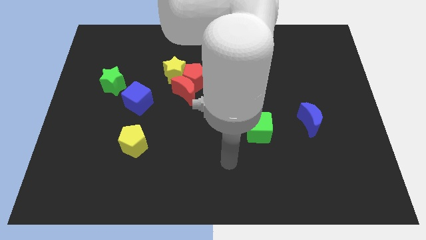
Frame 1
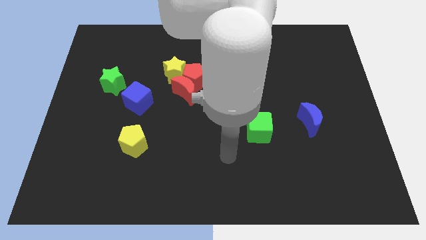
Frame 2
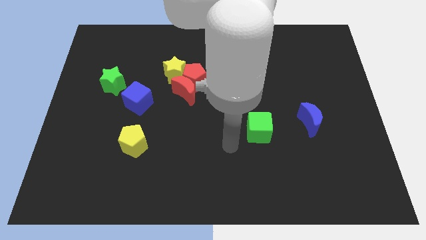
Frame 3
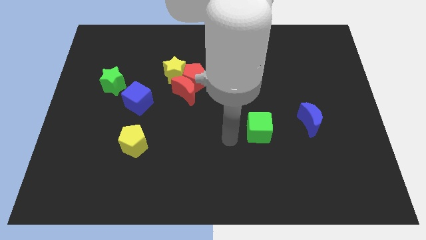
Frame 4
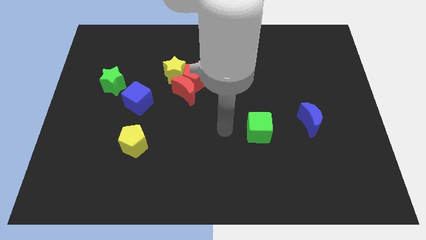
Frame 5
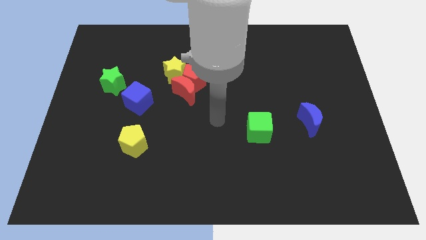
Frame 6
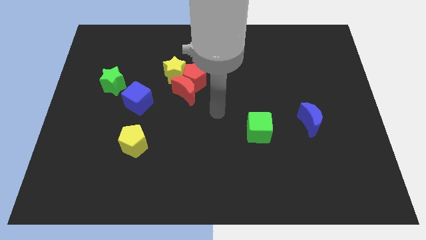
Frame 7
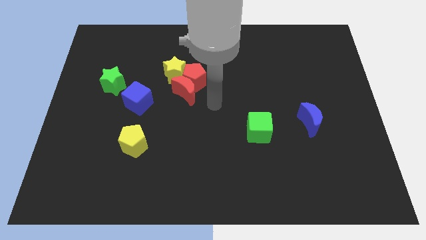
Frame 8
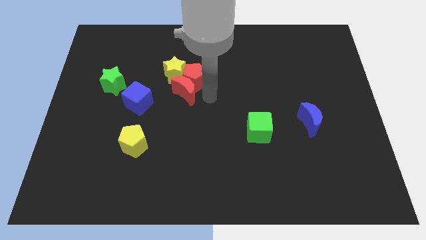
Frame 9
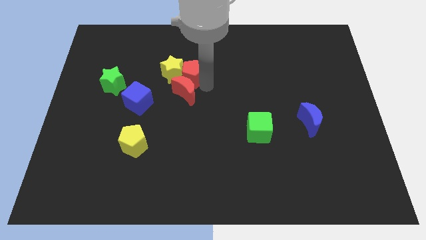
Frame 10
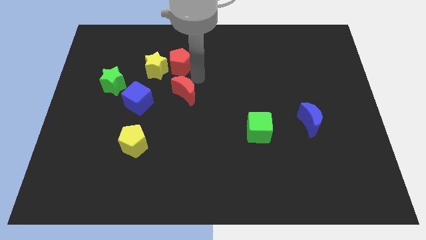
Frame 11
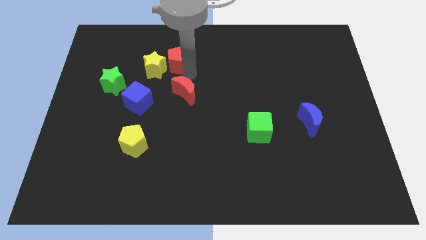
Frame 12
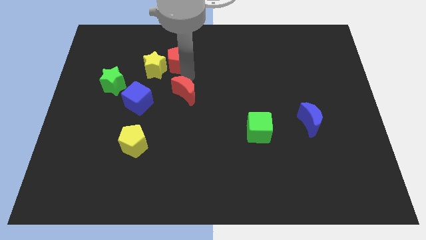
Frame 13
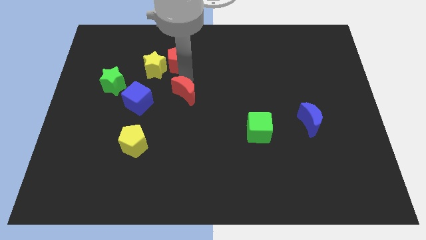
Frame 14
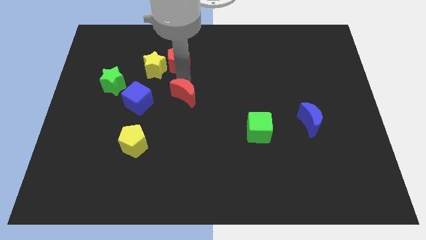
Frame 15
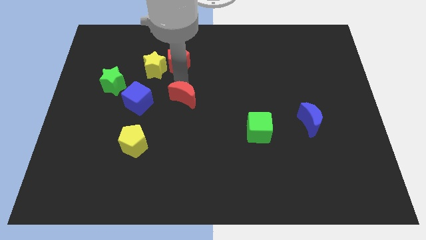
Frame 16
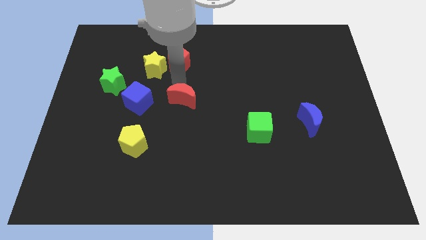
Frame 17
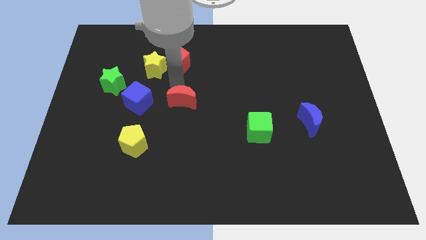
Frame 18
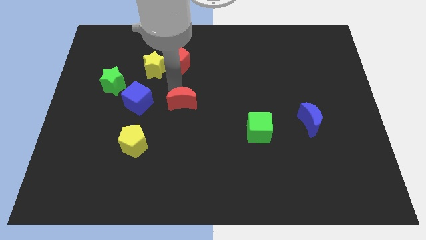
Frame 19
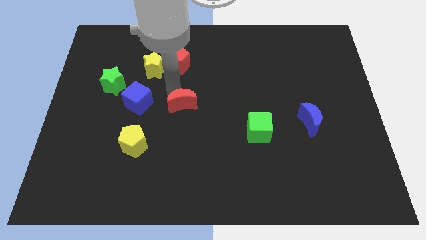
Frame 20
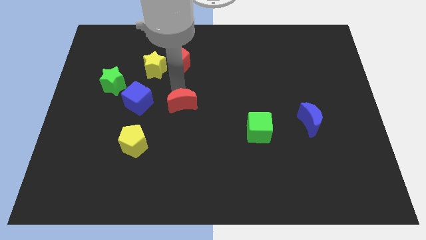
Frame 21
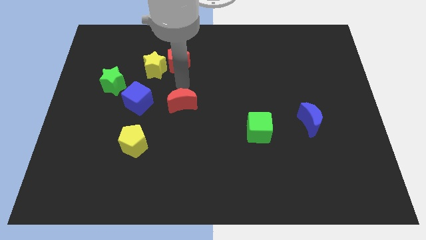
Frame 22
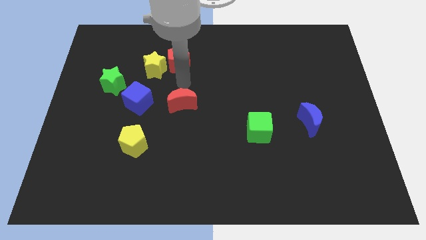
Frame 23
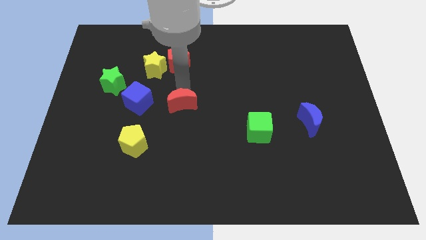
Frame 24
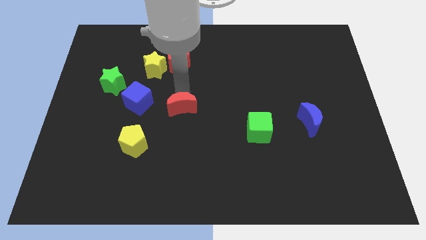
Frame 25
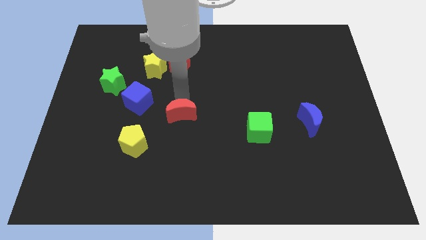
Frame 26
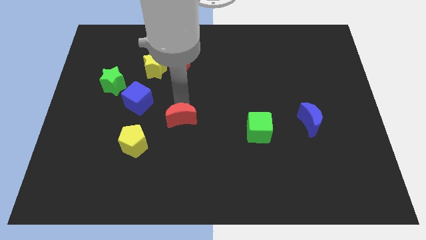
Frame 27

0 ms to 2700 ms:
move the red moon down a little bit

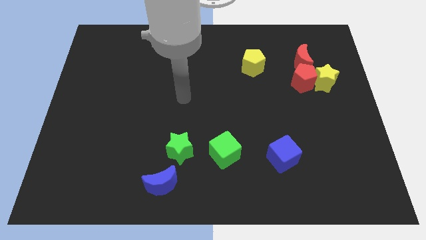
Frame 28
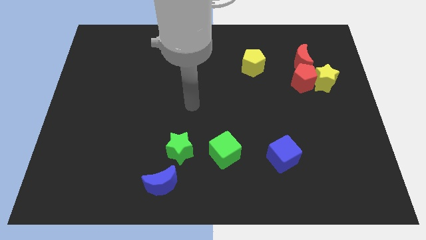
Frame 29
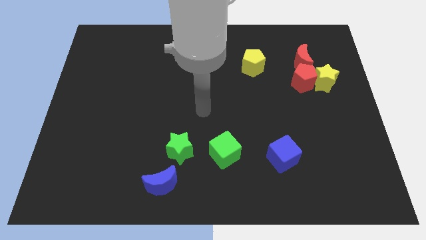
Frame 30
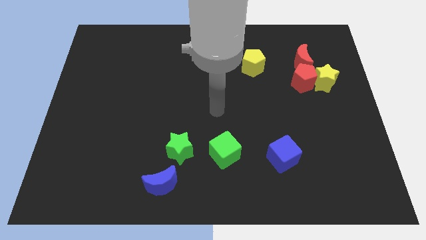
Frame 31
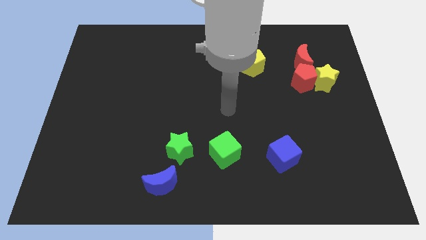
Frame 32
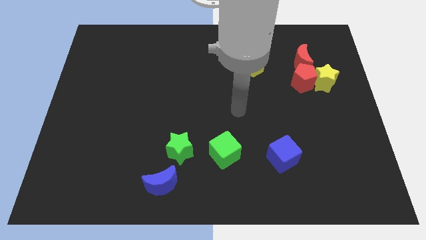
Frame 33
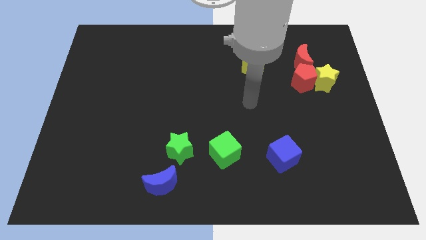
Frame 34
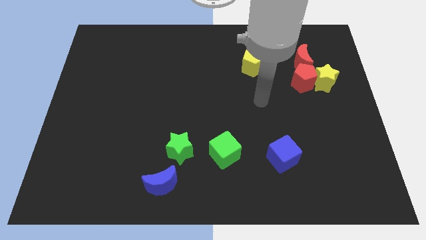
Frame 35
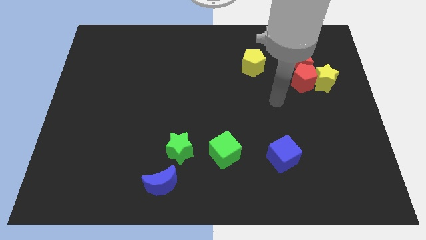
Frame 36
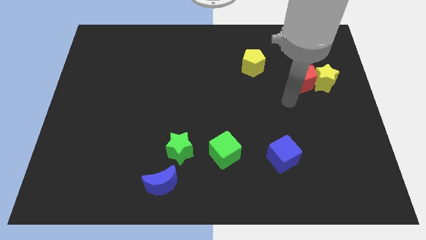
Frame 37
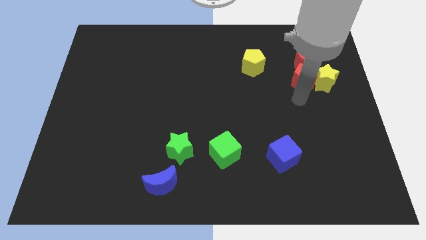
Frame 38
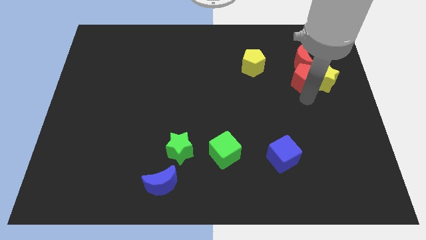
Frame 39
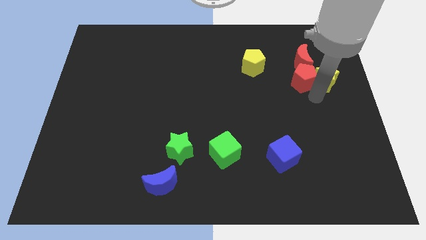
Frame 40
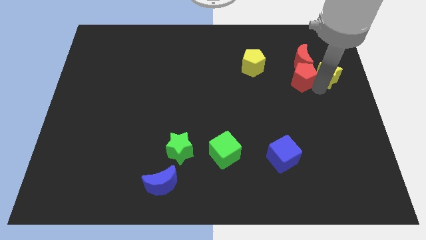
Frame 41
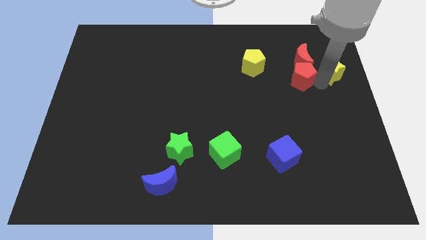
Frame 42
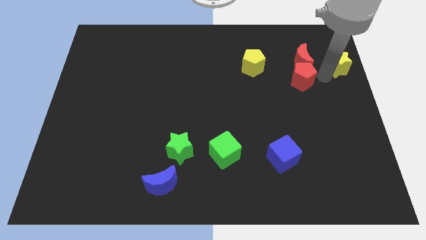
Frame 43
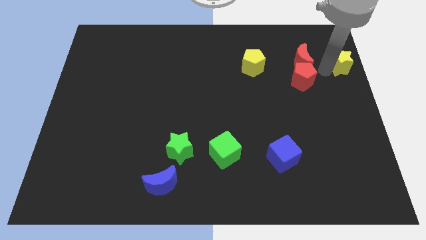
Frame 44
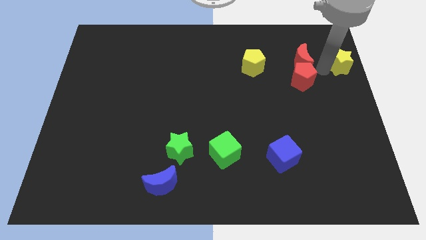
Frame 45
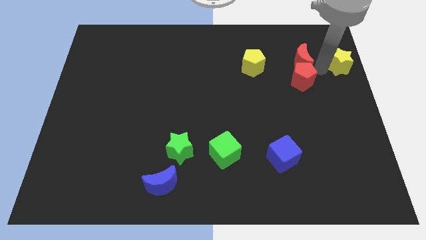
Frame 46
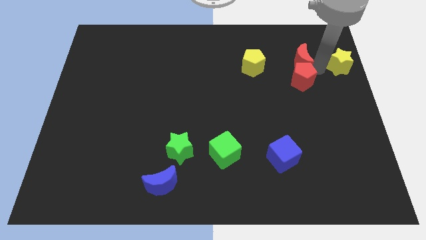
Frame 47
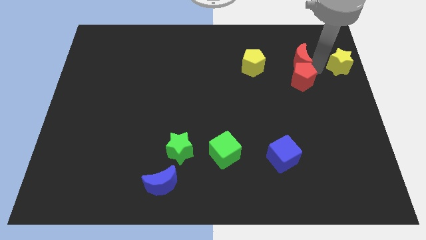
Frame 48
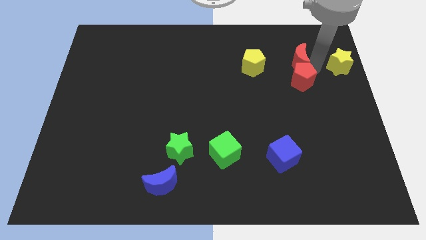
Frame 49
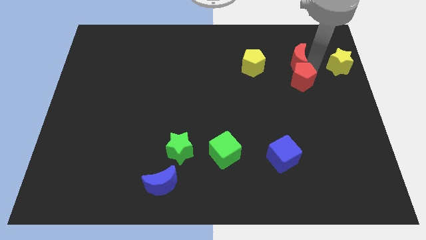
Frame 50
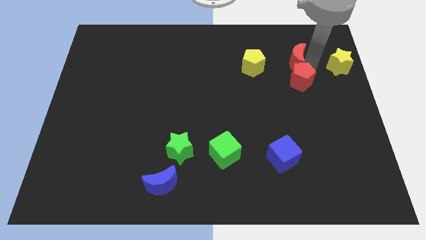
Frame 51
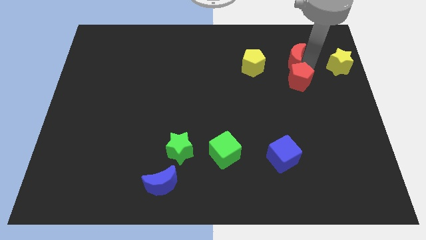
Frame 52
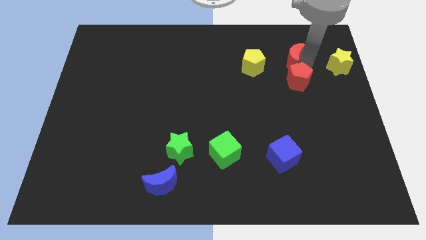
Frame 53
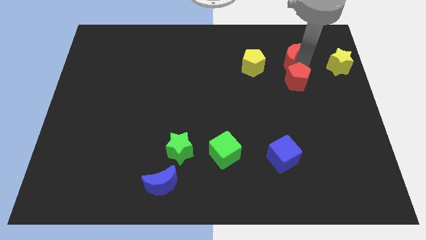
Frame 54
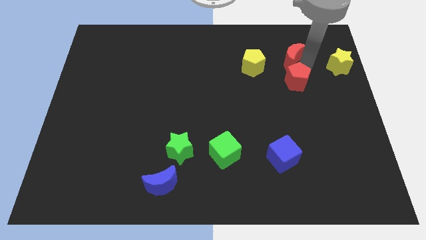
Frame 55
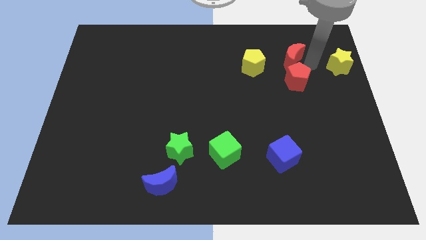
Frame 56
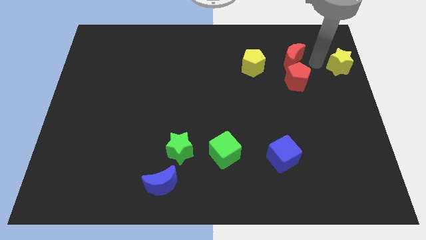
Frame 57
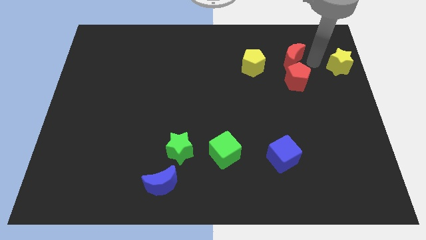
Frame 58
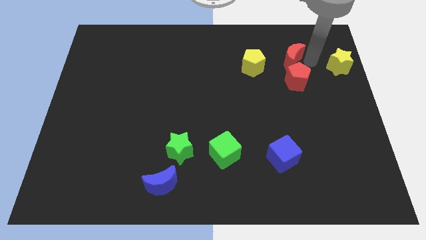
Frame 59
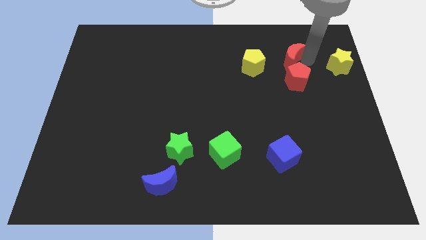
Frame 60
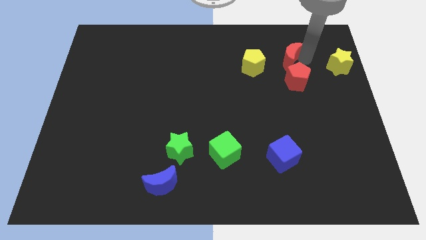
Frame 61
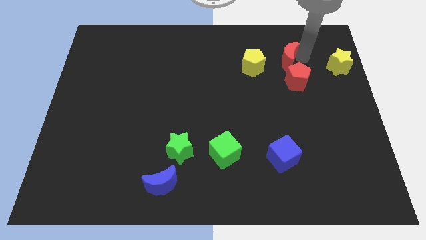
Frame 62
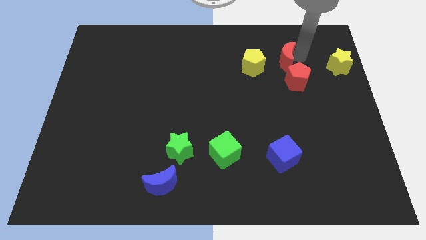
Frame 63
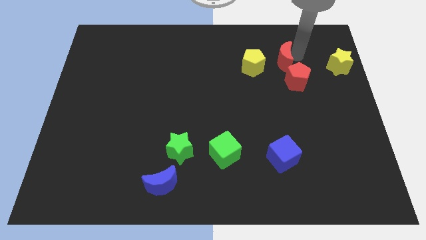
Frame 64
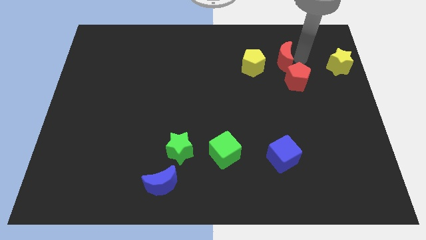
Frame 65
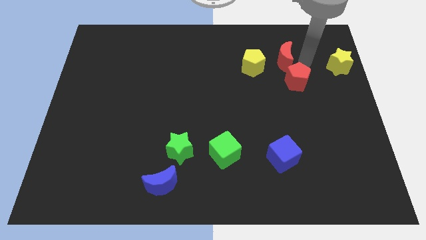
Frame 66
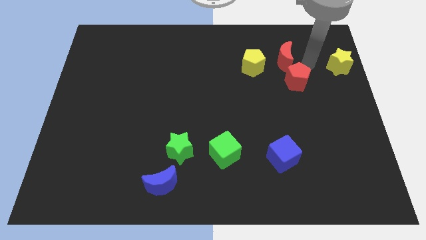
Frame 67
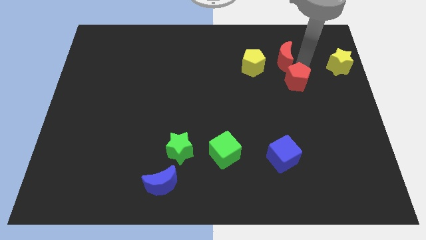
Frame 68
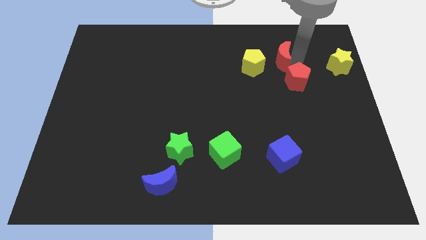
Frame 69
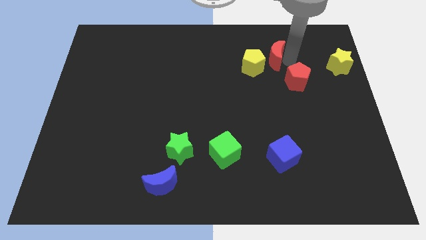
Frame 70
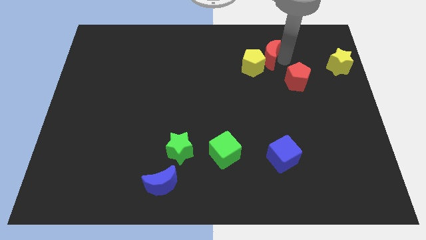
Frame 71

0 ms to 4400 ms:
slide the red moon left somewhat

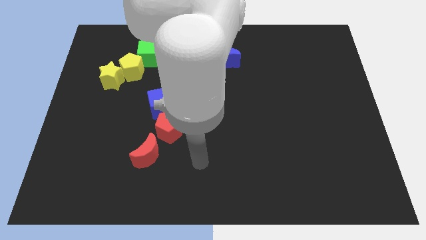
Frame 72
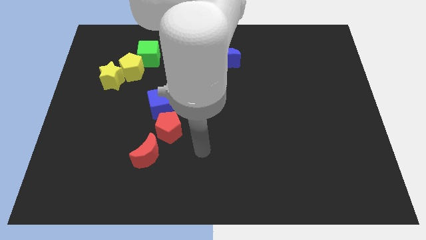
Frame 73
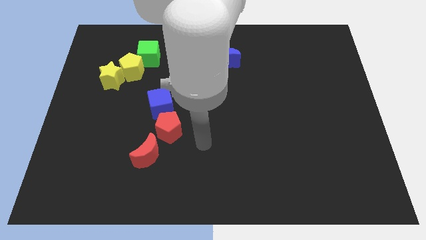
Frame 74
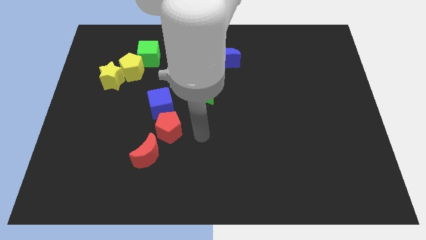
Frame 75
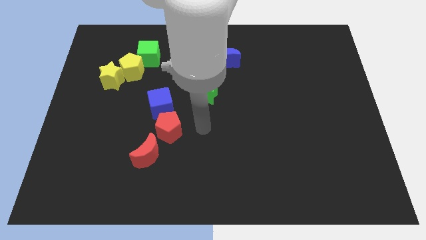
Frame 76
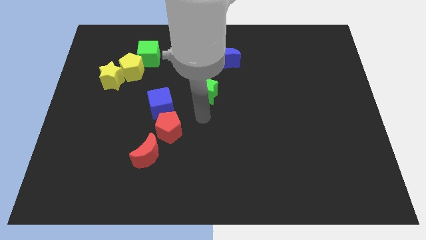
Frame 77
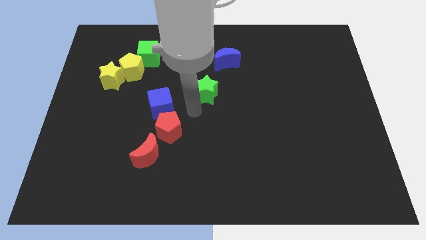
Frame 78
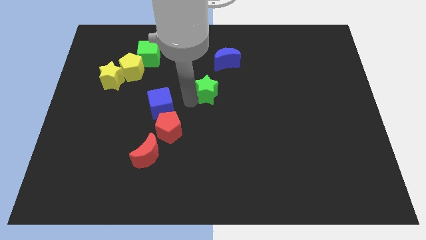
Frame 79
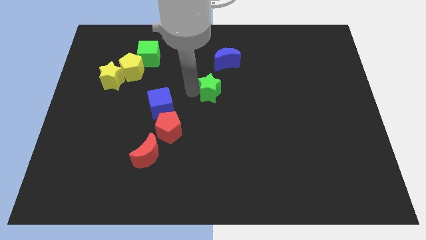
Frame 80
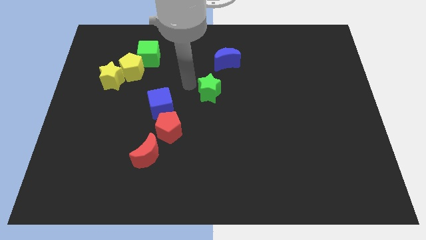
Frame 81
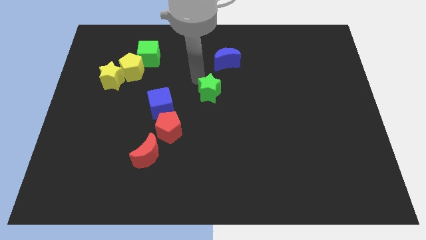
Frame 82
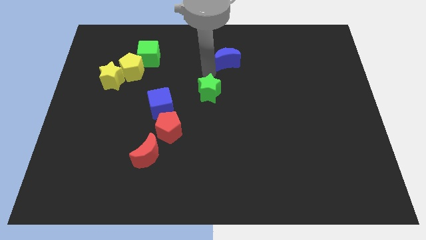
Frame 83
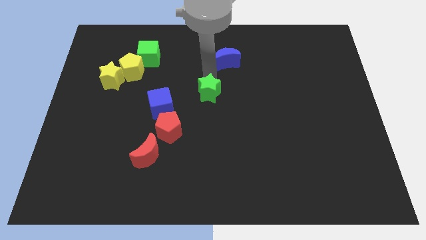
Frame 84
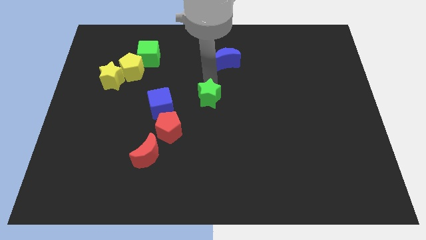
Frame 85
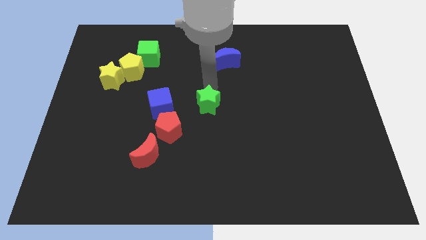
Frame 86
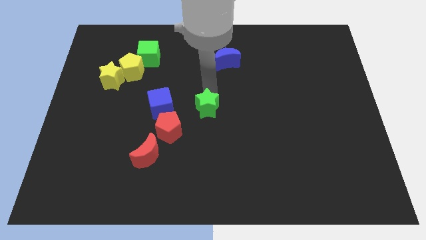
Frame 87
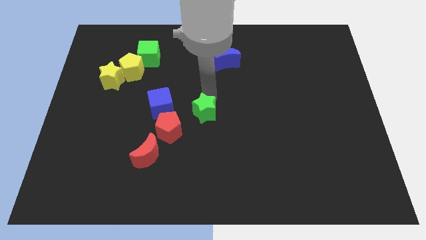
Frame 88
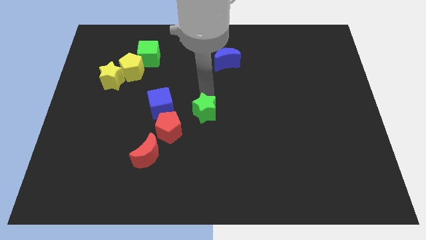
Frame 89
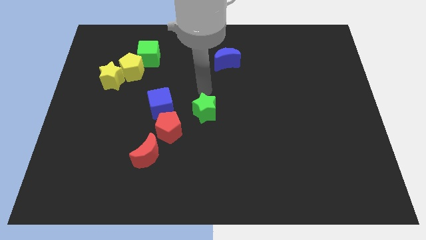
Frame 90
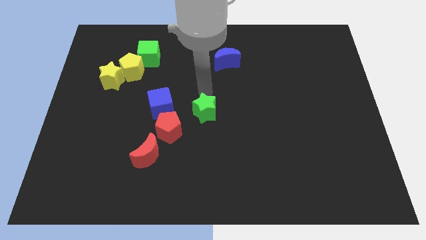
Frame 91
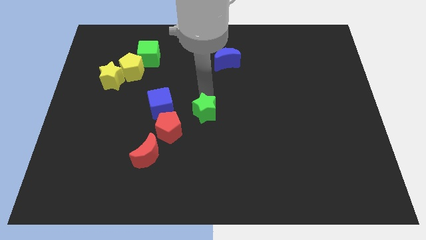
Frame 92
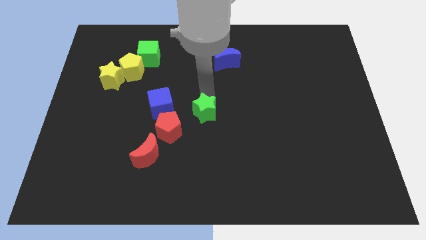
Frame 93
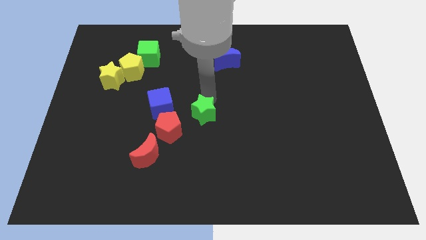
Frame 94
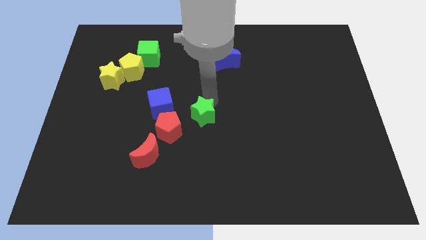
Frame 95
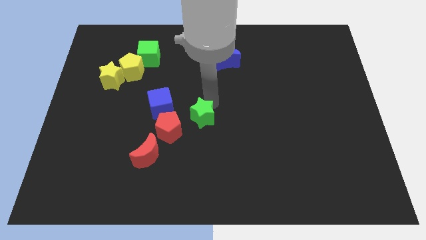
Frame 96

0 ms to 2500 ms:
push the green star downwards somewhat
